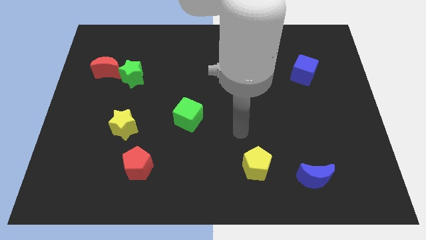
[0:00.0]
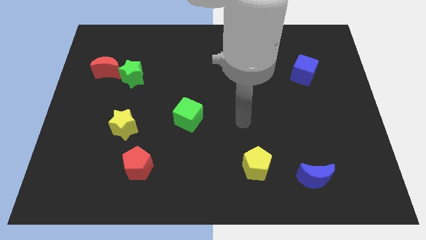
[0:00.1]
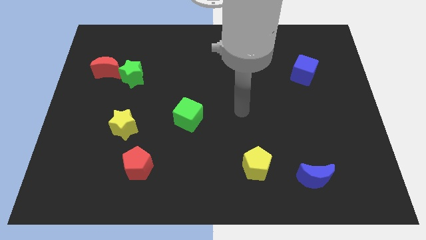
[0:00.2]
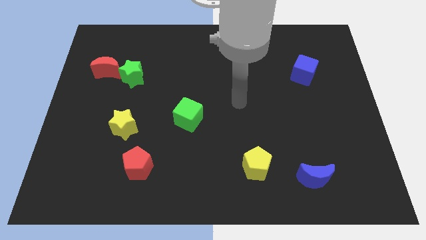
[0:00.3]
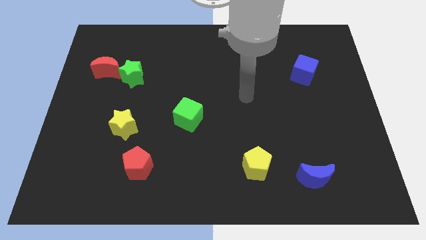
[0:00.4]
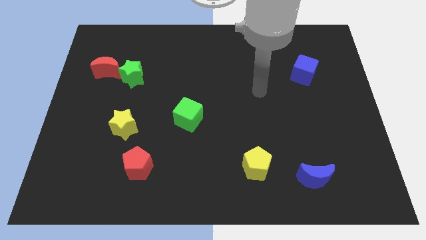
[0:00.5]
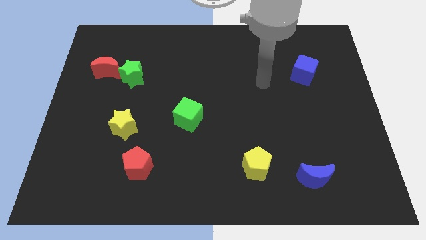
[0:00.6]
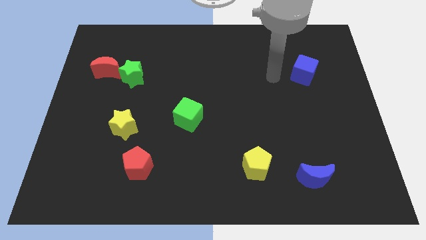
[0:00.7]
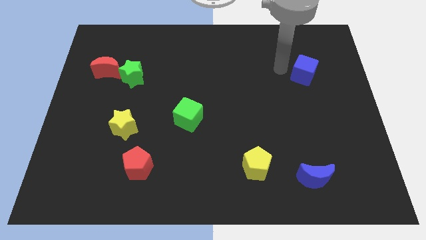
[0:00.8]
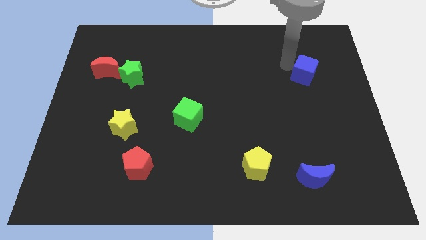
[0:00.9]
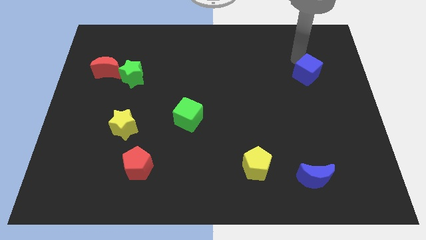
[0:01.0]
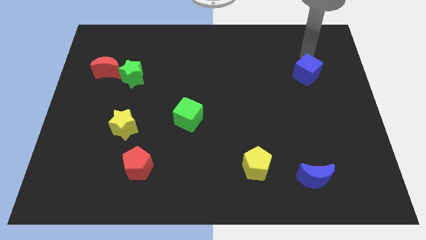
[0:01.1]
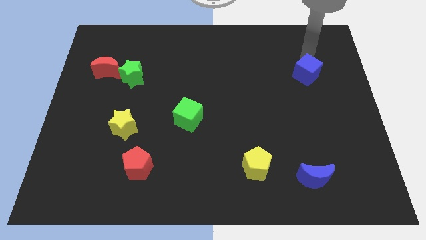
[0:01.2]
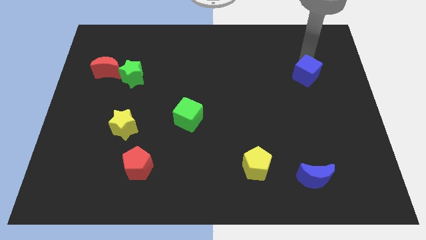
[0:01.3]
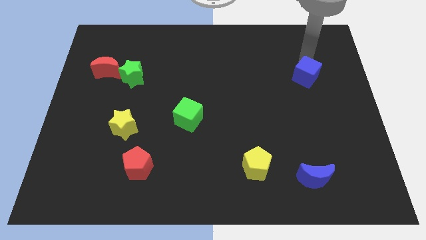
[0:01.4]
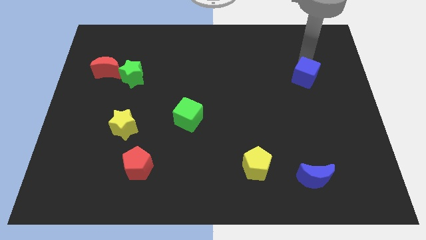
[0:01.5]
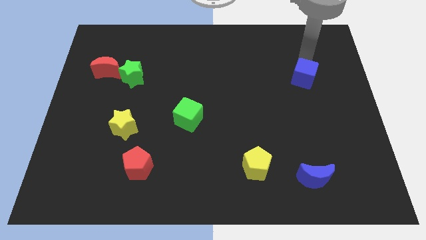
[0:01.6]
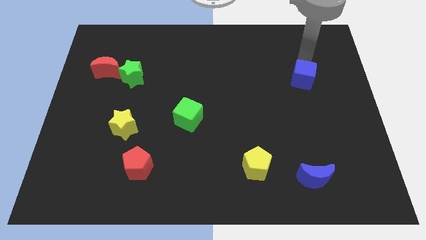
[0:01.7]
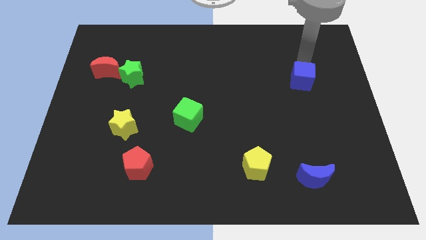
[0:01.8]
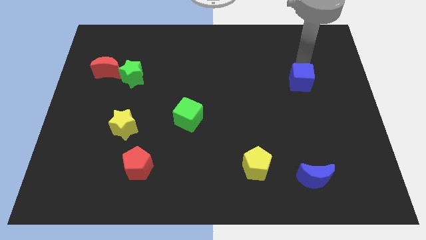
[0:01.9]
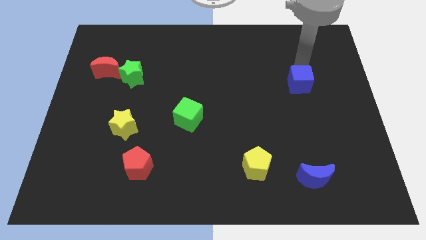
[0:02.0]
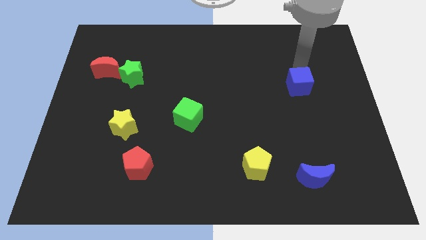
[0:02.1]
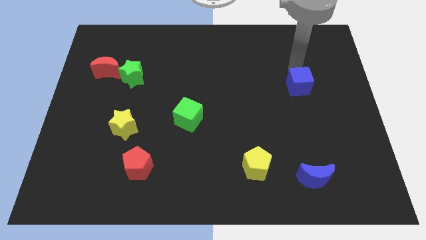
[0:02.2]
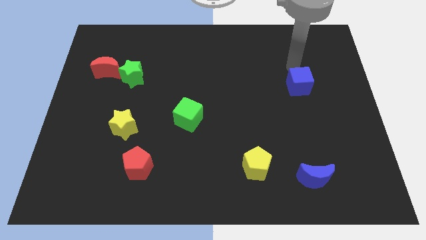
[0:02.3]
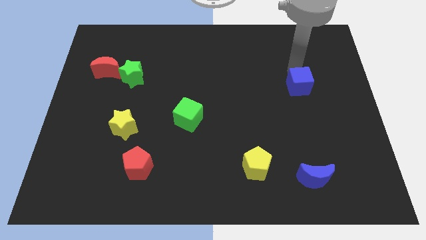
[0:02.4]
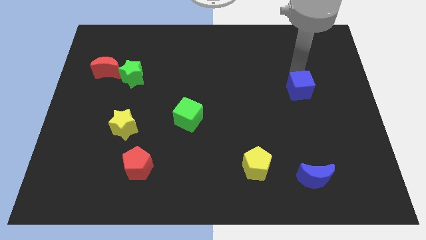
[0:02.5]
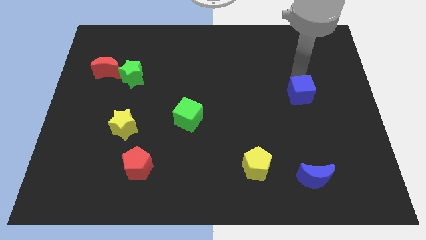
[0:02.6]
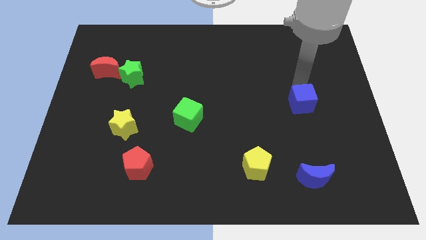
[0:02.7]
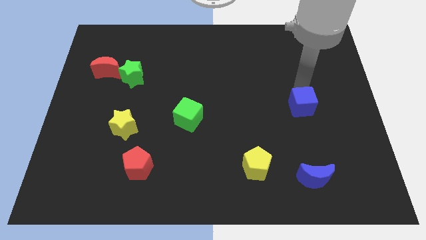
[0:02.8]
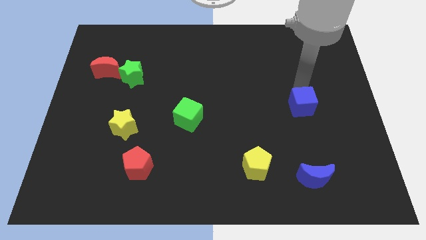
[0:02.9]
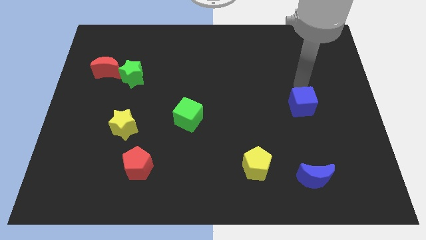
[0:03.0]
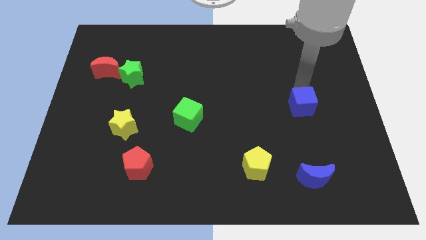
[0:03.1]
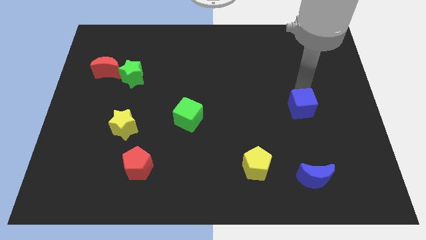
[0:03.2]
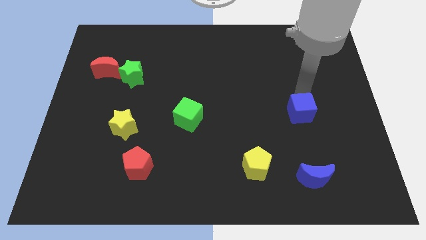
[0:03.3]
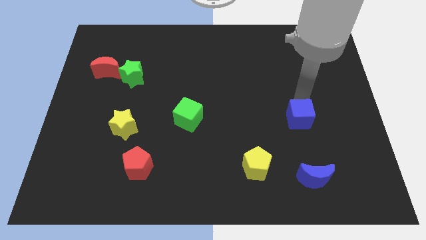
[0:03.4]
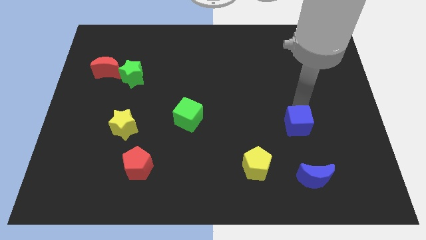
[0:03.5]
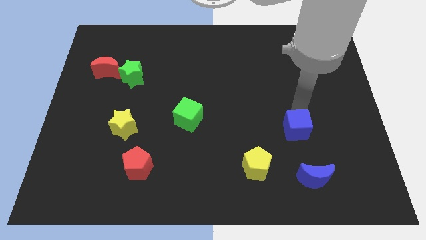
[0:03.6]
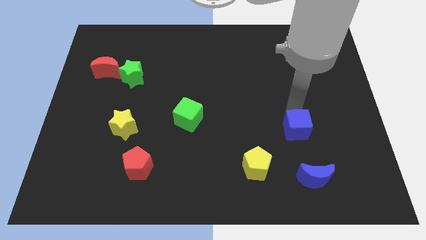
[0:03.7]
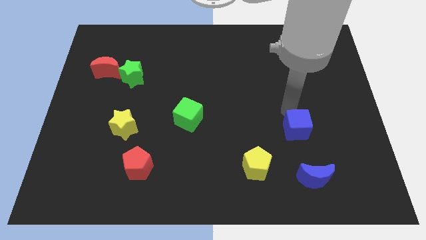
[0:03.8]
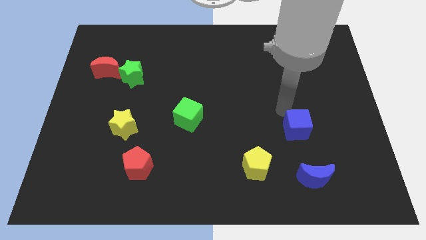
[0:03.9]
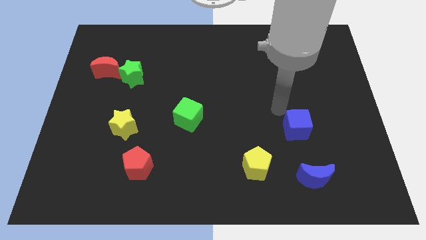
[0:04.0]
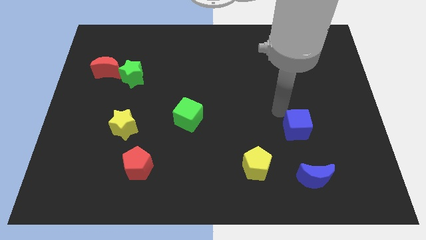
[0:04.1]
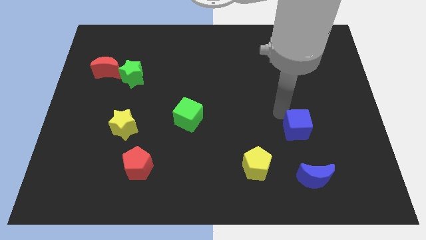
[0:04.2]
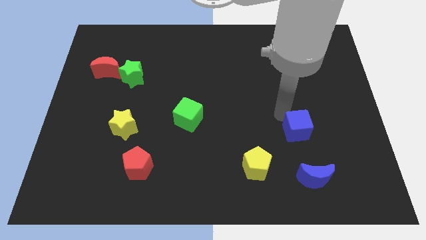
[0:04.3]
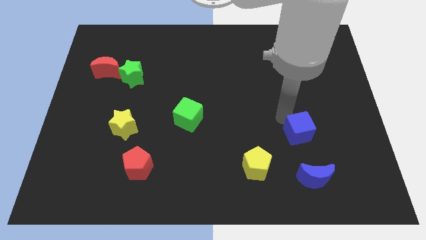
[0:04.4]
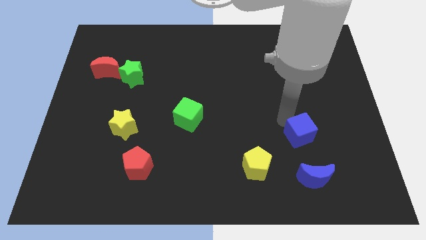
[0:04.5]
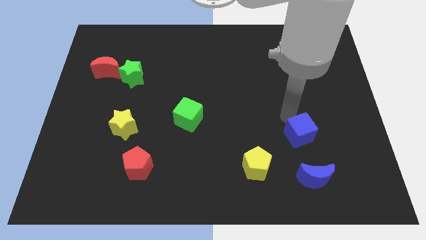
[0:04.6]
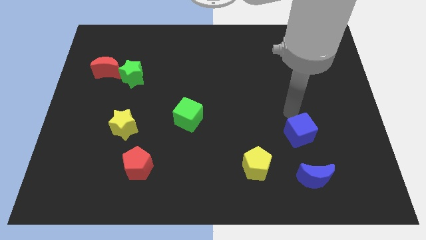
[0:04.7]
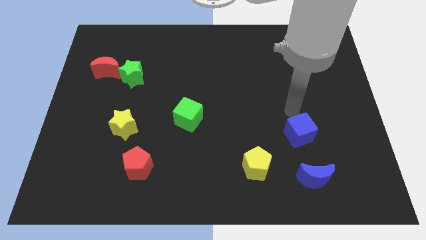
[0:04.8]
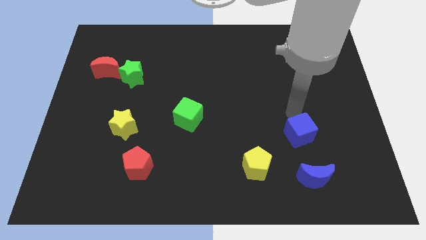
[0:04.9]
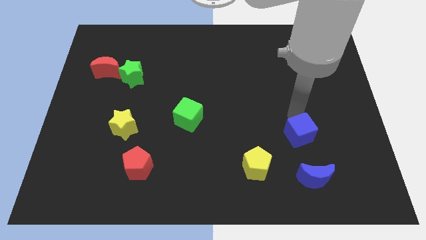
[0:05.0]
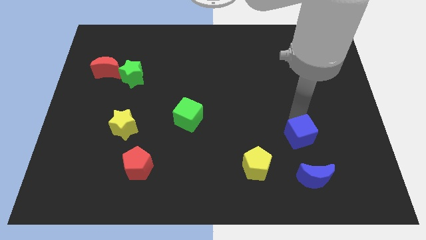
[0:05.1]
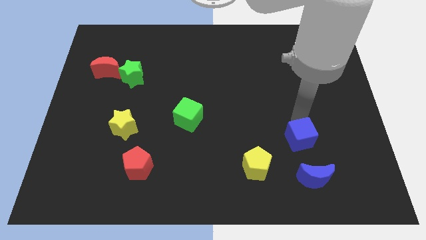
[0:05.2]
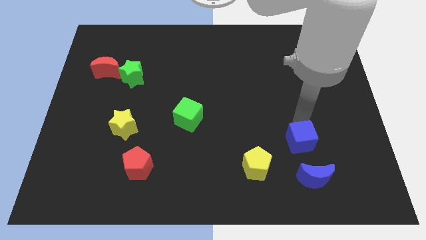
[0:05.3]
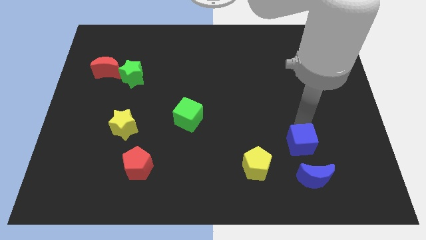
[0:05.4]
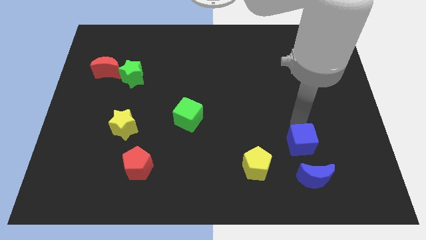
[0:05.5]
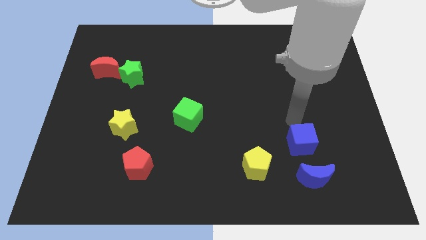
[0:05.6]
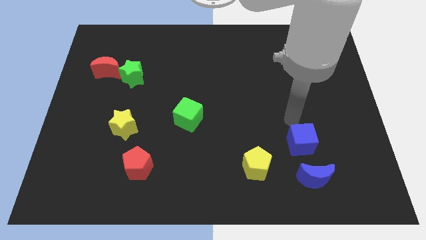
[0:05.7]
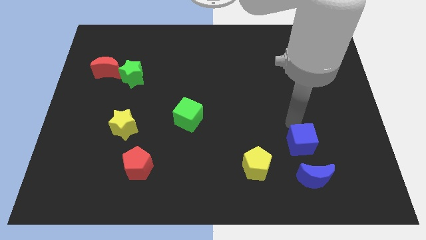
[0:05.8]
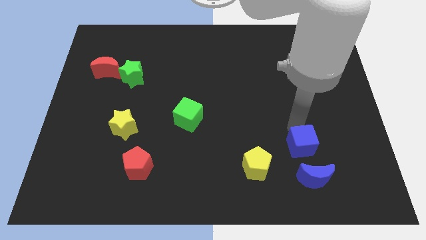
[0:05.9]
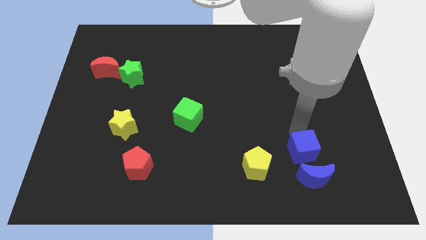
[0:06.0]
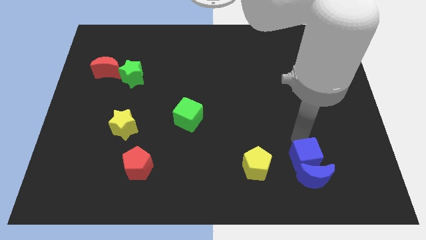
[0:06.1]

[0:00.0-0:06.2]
put the blue cube close to the blue moon

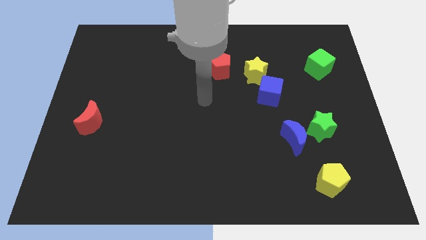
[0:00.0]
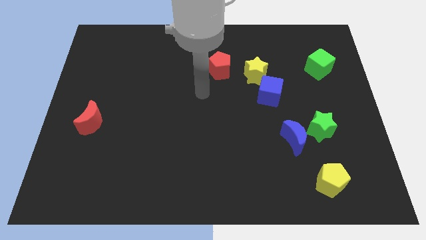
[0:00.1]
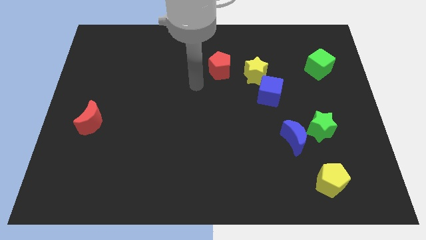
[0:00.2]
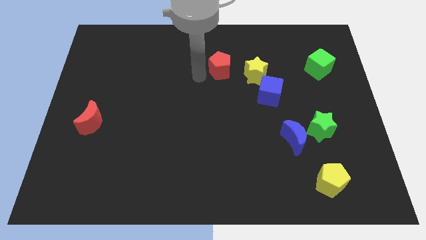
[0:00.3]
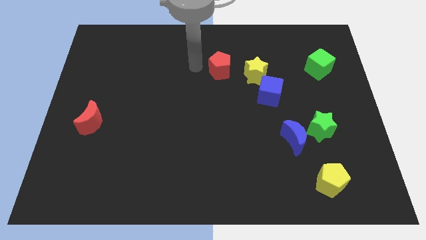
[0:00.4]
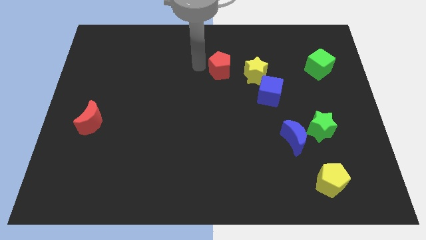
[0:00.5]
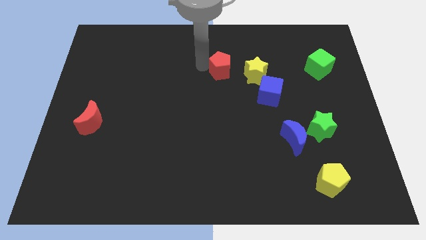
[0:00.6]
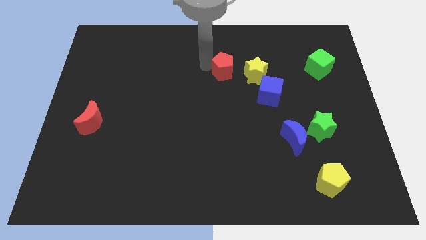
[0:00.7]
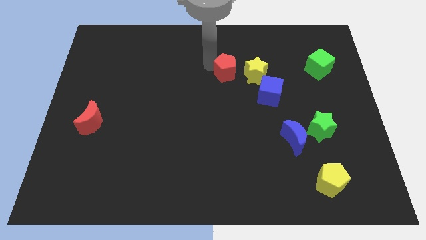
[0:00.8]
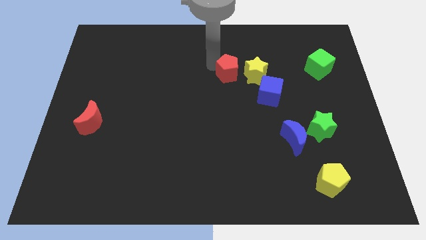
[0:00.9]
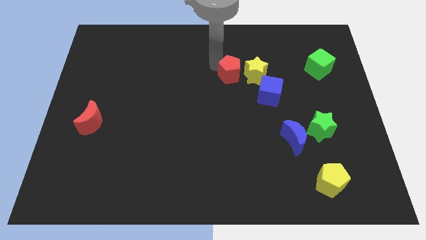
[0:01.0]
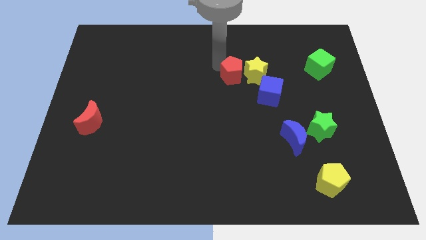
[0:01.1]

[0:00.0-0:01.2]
put the red pentagon close to the yellow star
